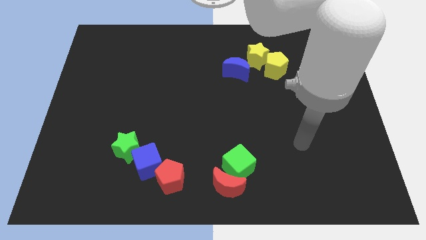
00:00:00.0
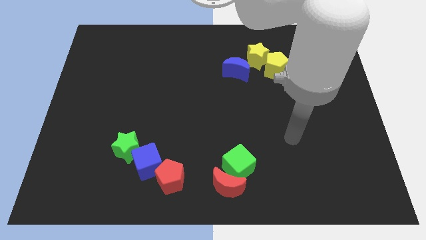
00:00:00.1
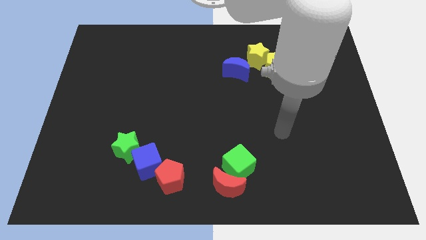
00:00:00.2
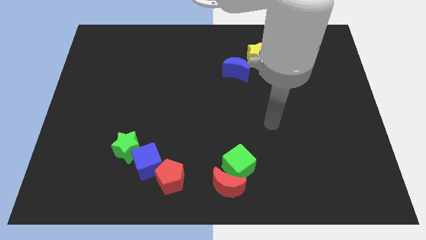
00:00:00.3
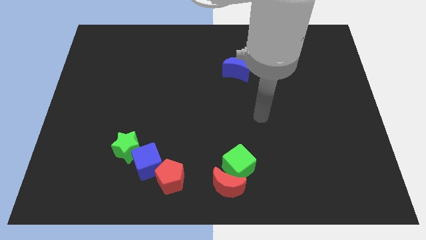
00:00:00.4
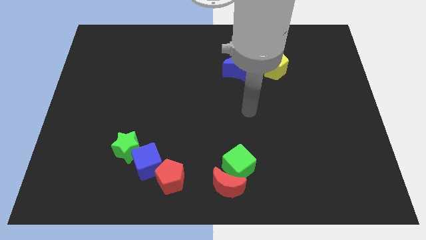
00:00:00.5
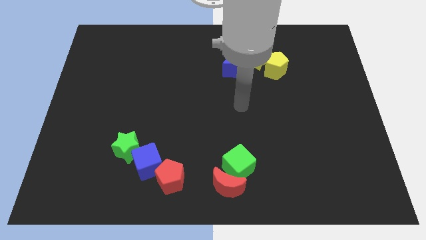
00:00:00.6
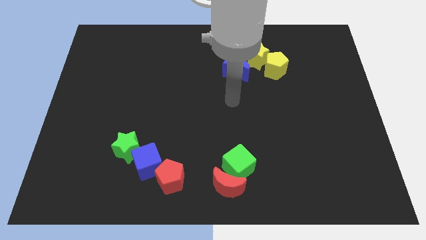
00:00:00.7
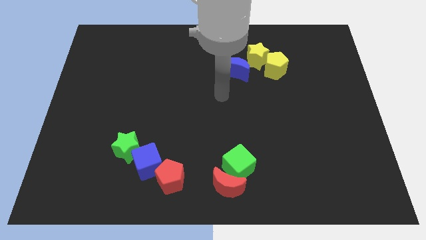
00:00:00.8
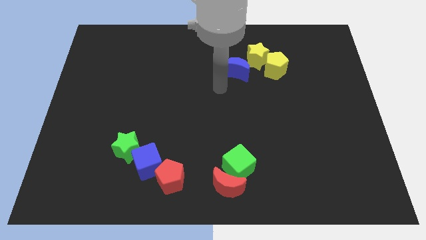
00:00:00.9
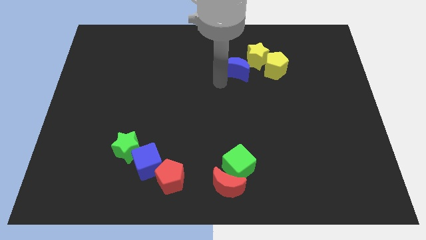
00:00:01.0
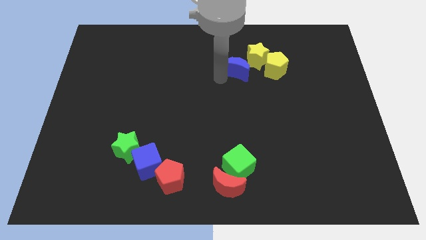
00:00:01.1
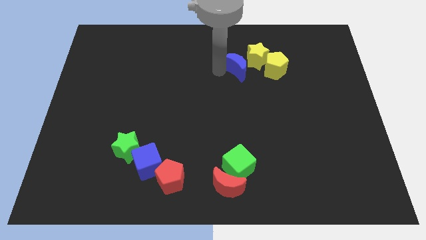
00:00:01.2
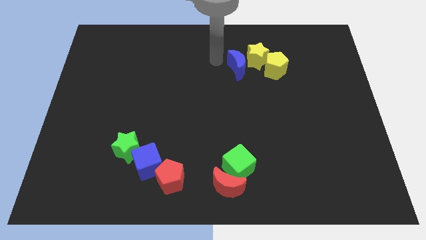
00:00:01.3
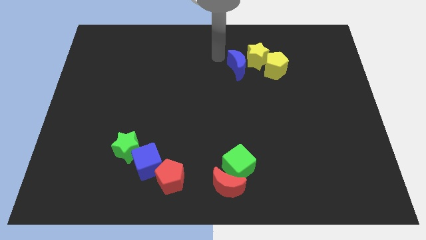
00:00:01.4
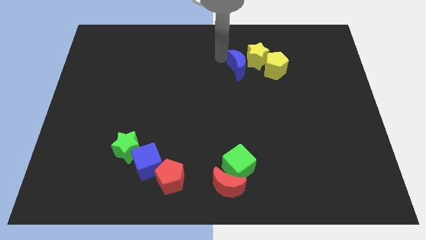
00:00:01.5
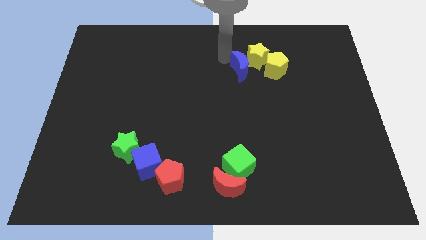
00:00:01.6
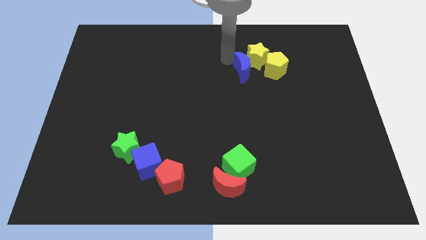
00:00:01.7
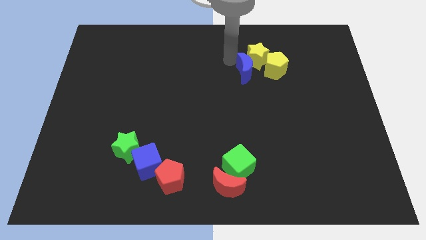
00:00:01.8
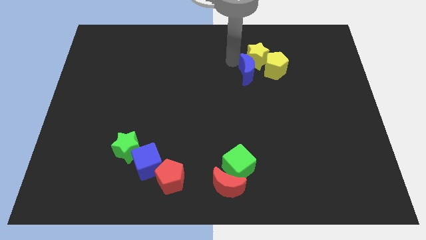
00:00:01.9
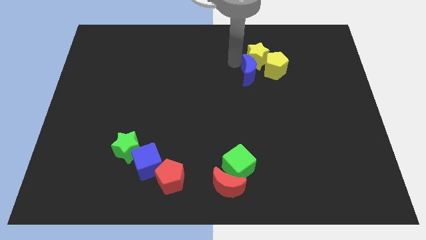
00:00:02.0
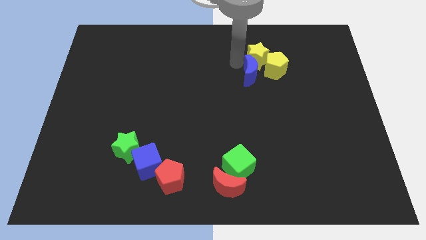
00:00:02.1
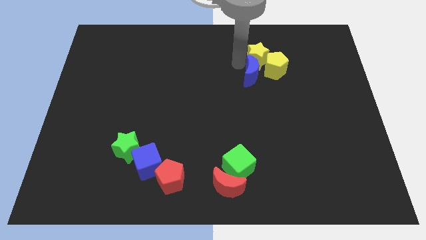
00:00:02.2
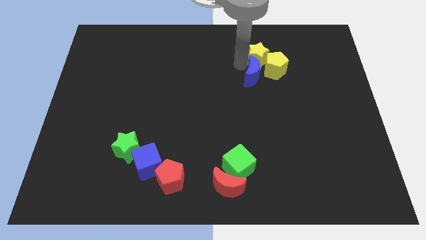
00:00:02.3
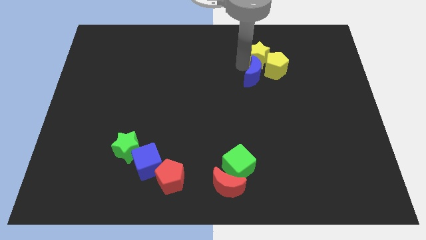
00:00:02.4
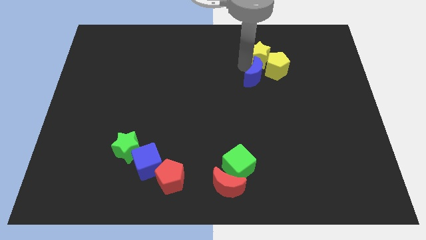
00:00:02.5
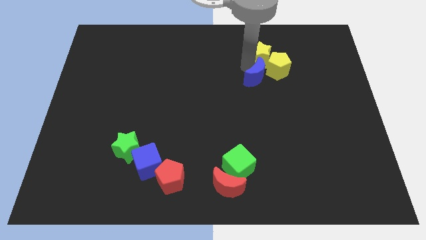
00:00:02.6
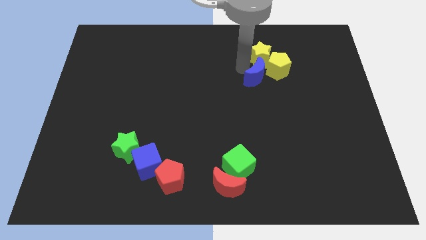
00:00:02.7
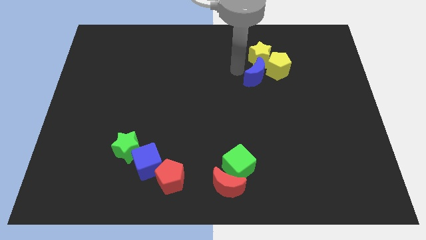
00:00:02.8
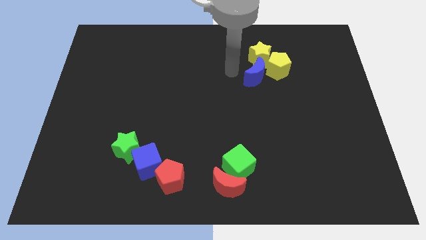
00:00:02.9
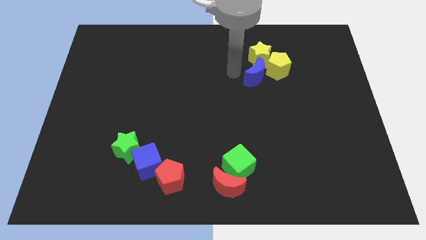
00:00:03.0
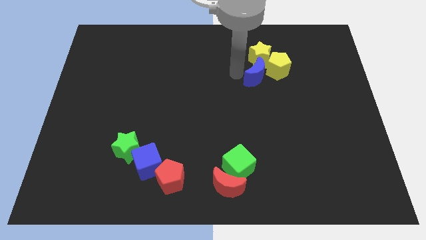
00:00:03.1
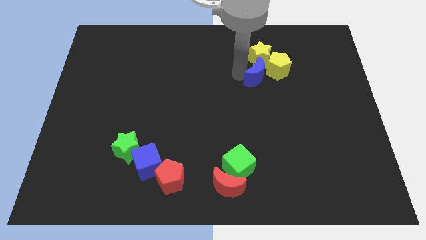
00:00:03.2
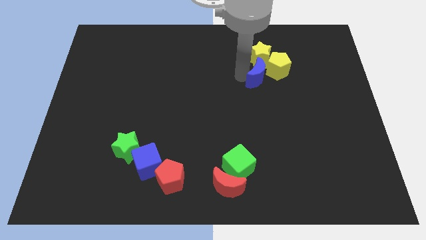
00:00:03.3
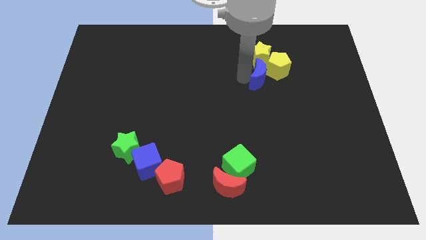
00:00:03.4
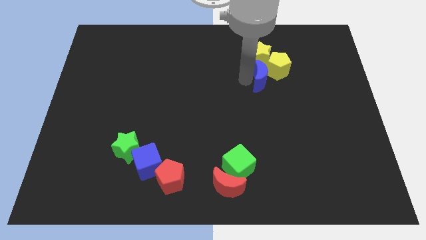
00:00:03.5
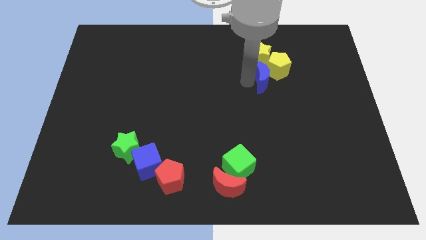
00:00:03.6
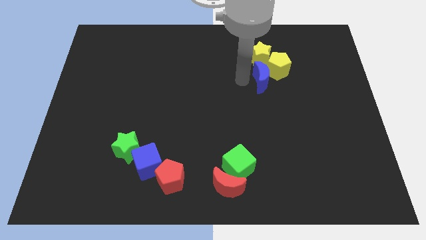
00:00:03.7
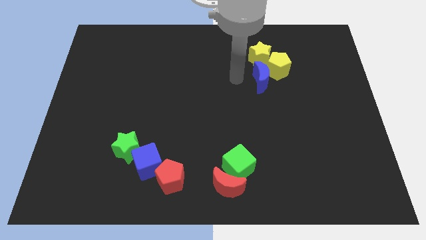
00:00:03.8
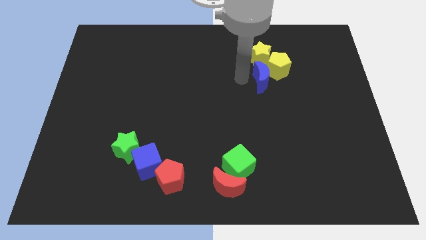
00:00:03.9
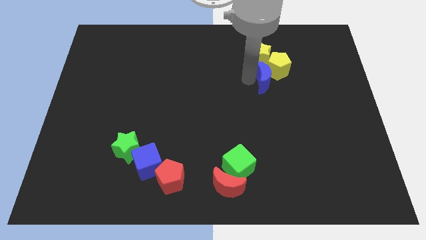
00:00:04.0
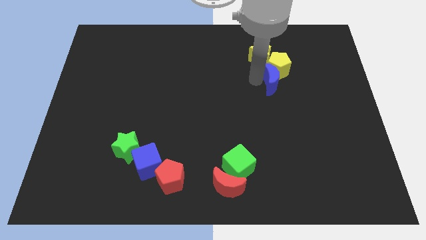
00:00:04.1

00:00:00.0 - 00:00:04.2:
push the blue moon to the right a little bit

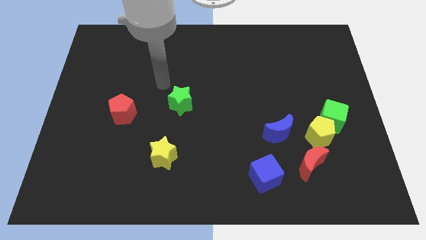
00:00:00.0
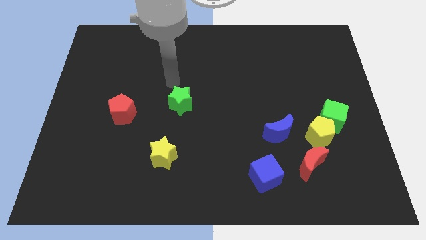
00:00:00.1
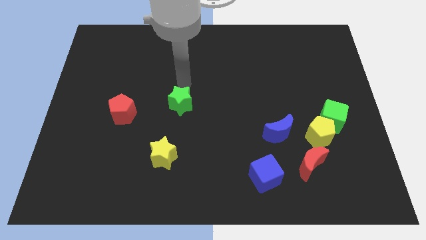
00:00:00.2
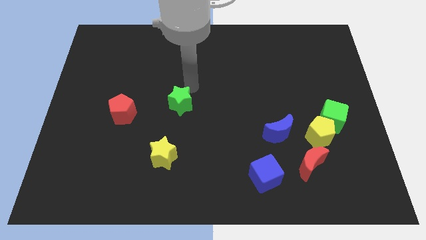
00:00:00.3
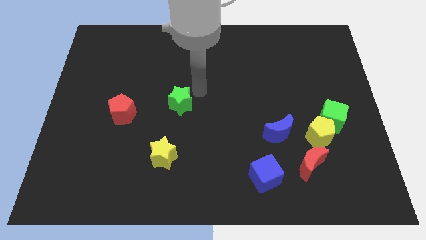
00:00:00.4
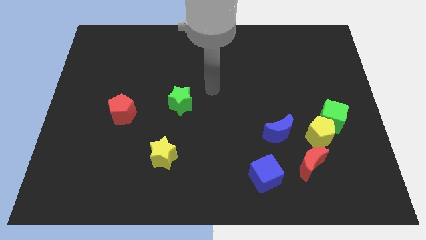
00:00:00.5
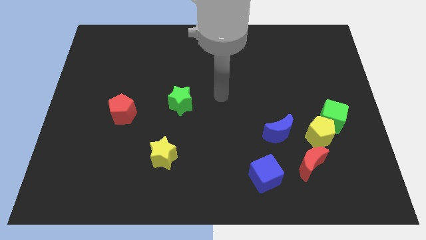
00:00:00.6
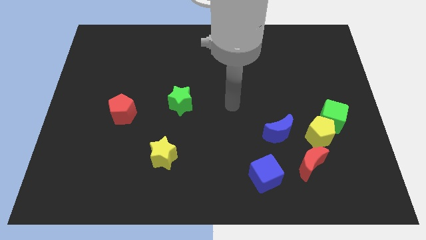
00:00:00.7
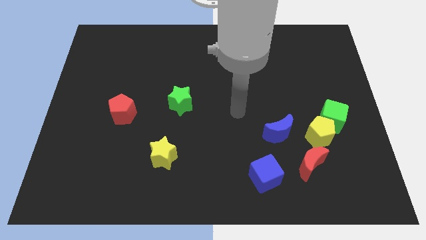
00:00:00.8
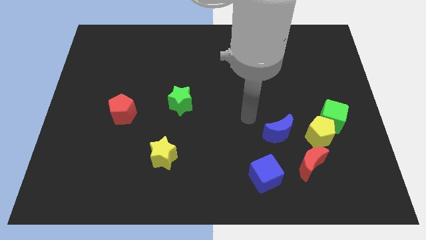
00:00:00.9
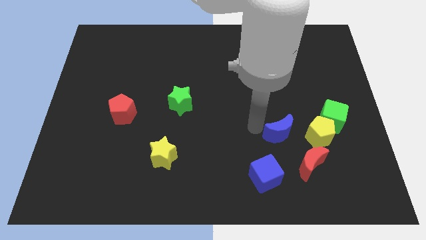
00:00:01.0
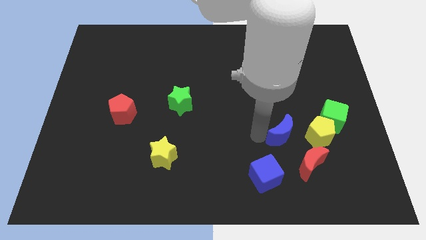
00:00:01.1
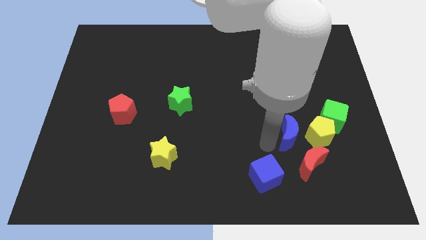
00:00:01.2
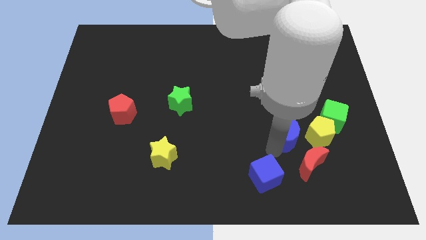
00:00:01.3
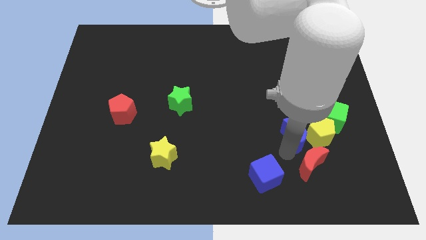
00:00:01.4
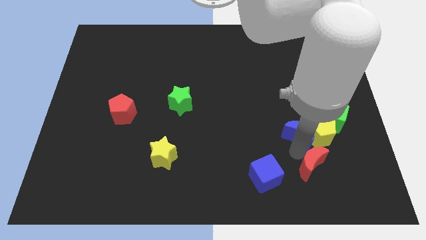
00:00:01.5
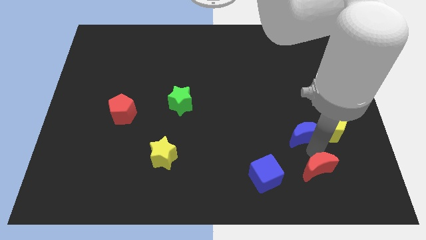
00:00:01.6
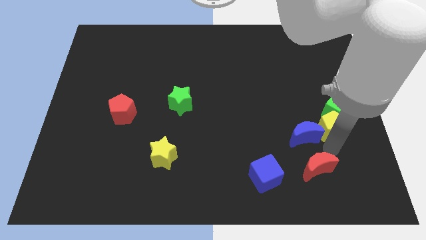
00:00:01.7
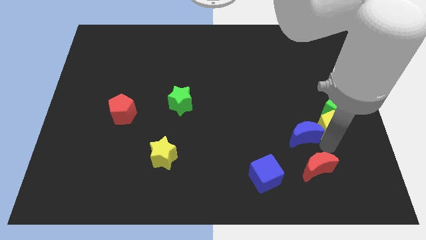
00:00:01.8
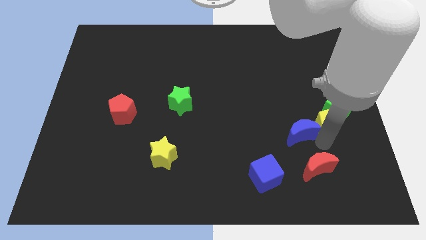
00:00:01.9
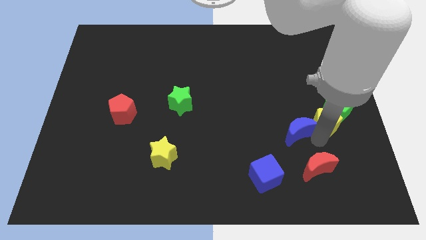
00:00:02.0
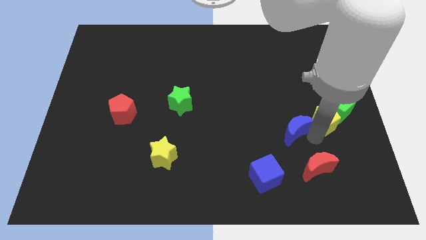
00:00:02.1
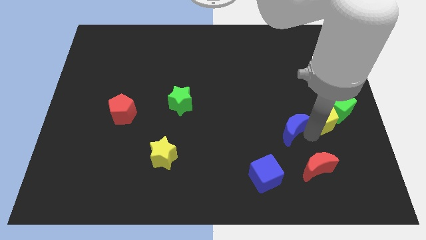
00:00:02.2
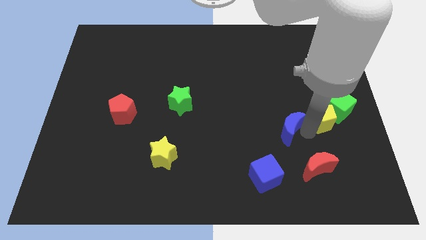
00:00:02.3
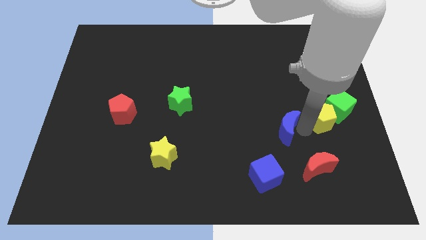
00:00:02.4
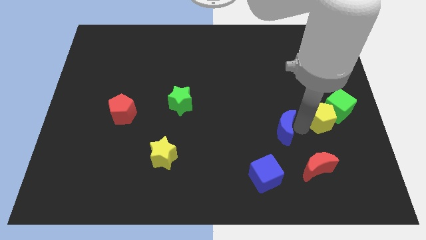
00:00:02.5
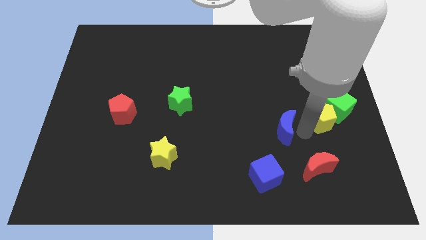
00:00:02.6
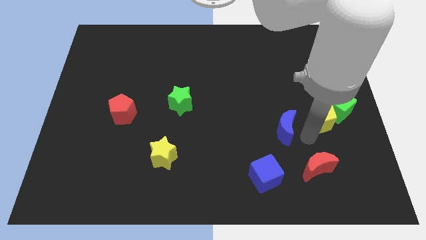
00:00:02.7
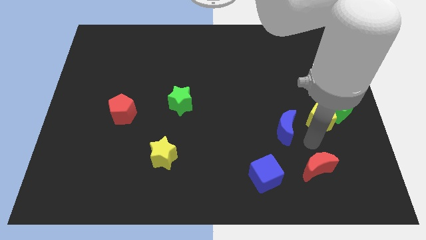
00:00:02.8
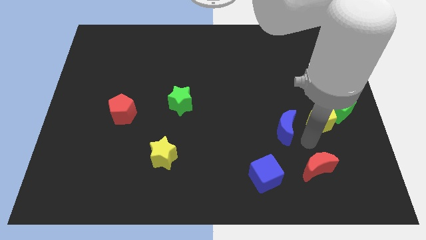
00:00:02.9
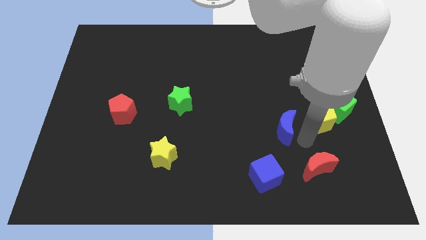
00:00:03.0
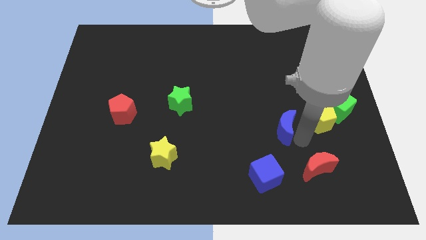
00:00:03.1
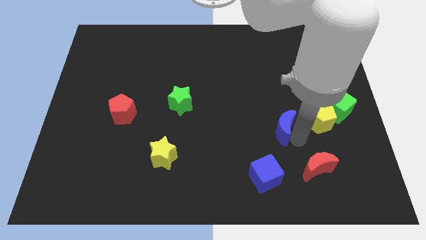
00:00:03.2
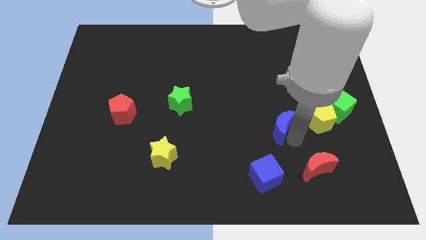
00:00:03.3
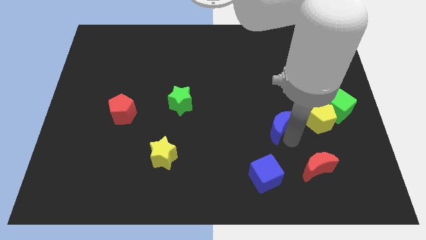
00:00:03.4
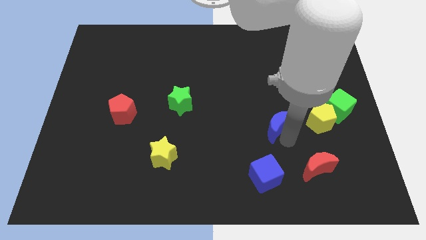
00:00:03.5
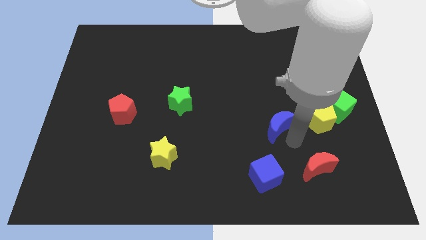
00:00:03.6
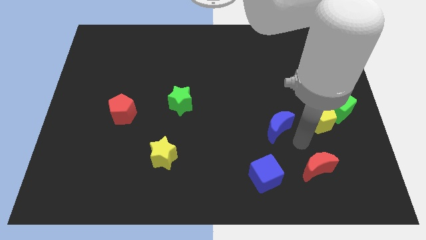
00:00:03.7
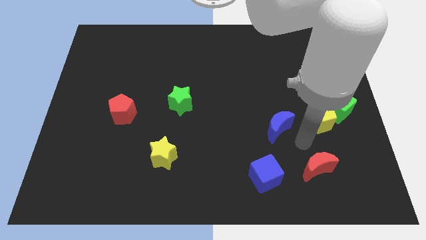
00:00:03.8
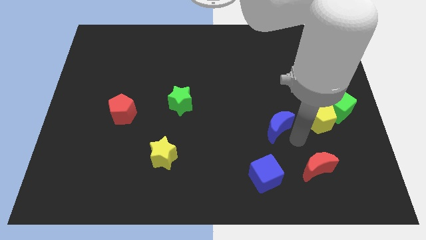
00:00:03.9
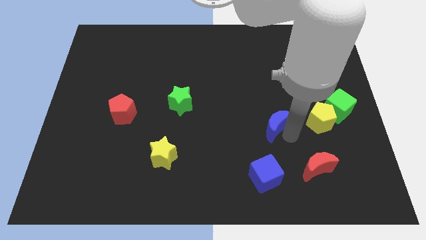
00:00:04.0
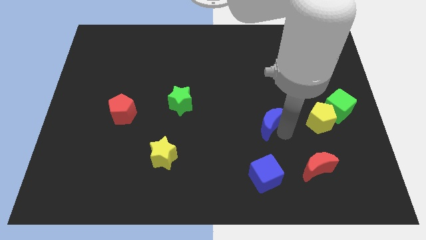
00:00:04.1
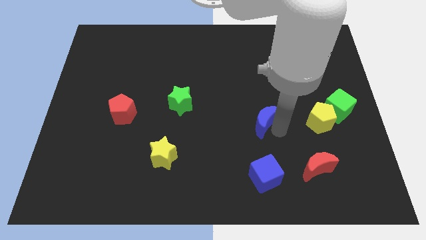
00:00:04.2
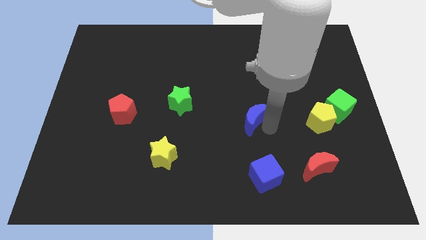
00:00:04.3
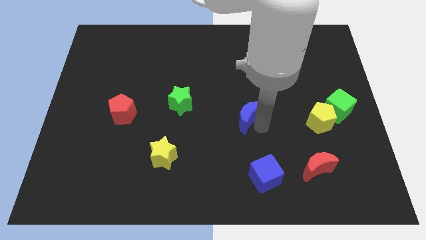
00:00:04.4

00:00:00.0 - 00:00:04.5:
push the blue moon diagonally upwards and left a little
